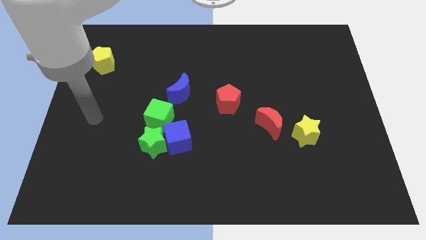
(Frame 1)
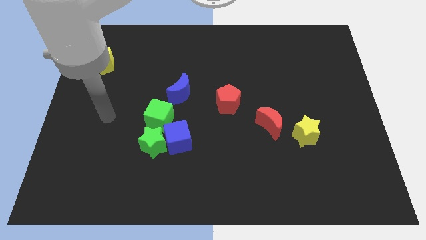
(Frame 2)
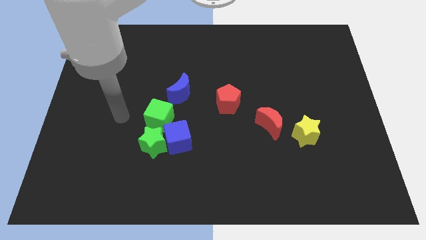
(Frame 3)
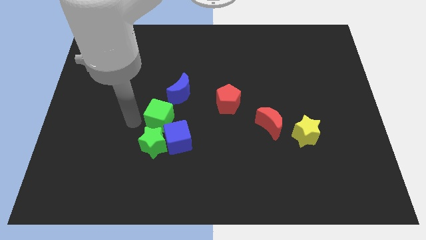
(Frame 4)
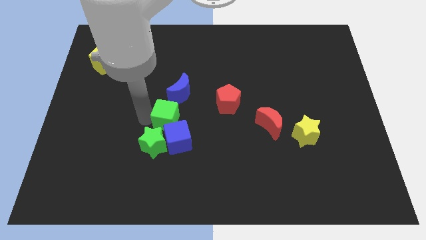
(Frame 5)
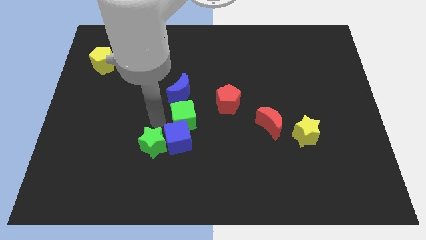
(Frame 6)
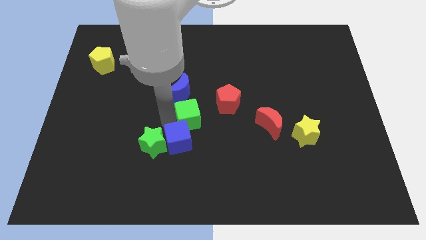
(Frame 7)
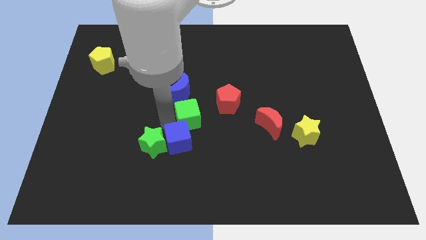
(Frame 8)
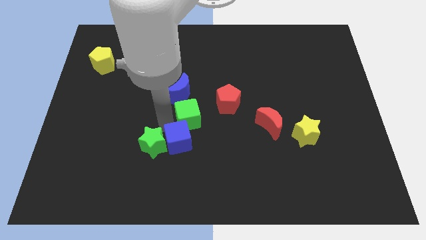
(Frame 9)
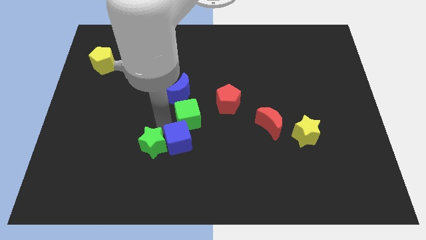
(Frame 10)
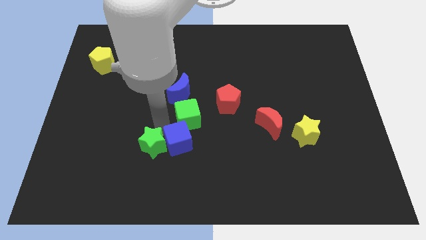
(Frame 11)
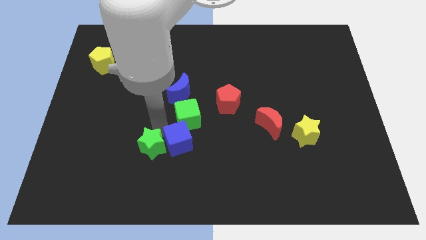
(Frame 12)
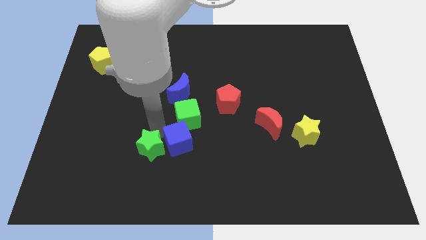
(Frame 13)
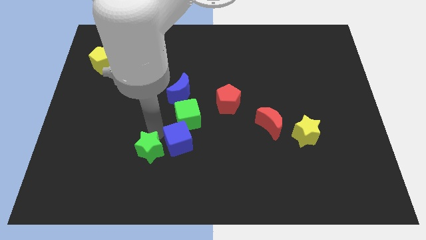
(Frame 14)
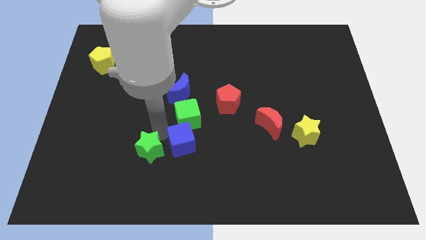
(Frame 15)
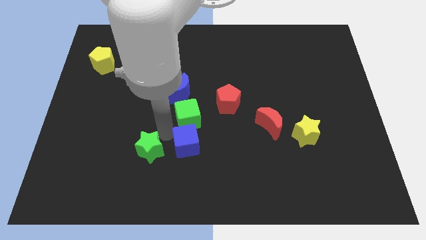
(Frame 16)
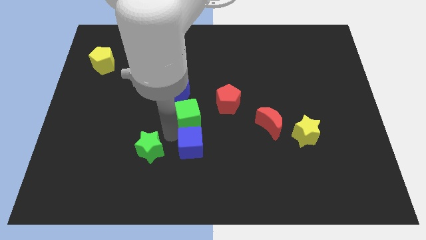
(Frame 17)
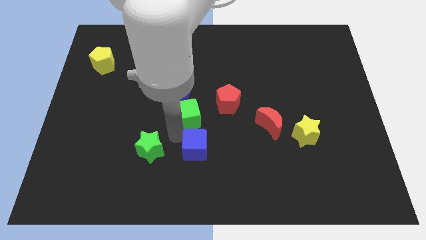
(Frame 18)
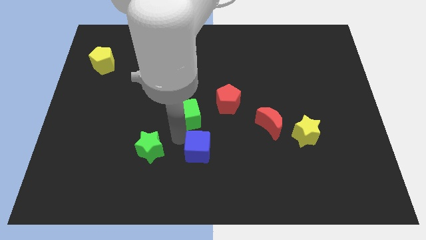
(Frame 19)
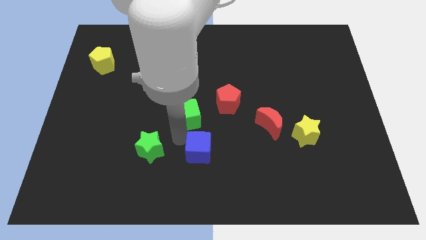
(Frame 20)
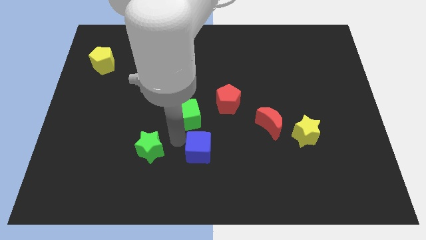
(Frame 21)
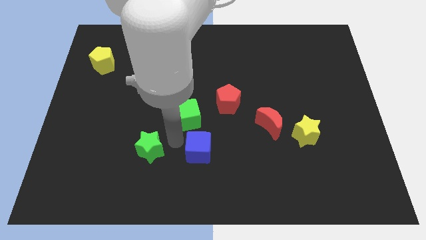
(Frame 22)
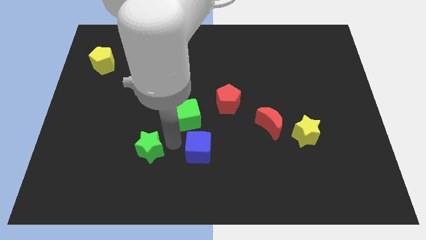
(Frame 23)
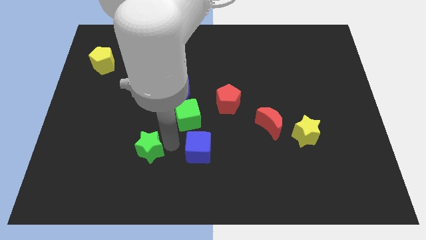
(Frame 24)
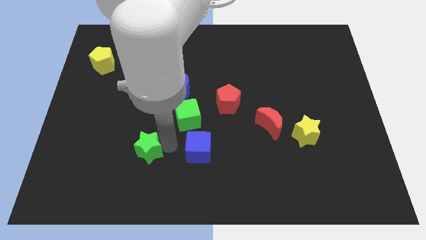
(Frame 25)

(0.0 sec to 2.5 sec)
move the green star away from the blue cube and green cube

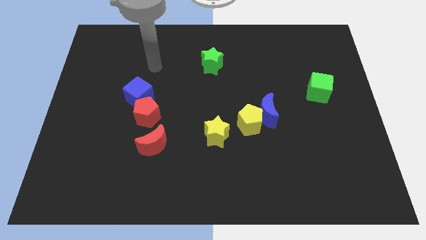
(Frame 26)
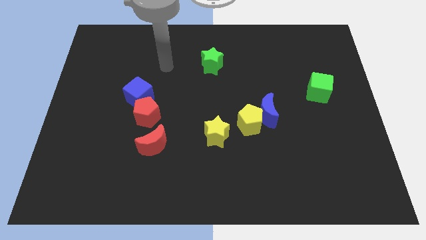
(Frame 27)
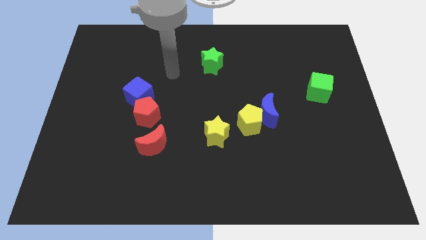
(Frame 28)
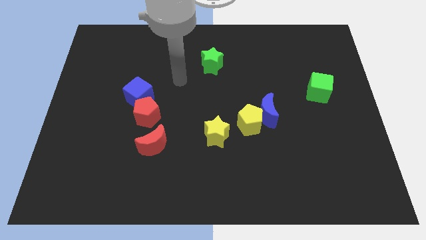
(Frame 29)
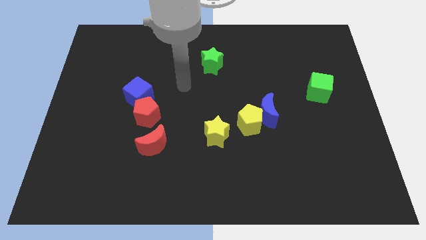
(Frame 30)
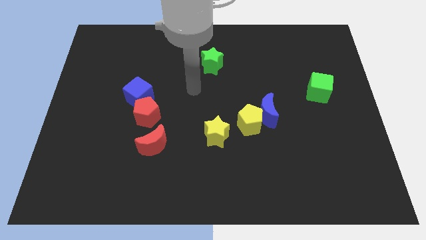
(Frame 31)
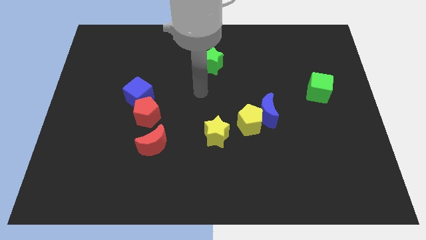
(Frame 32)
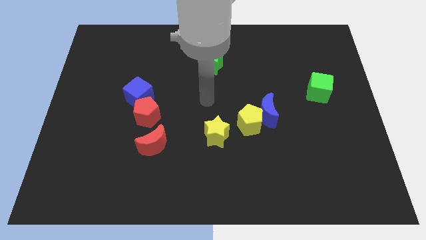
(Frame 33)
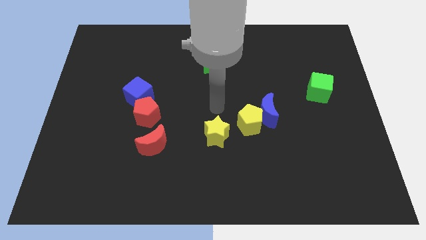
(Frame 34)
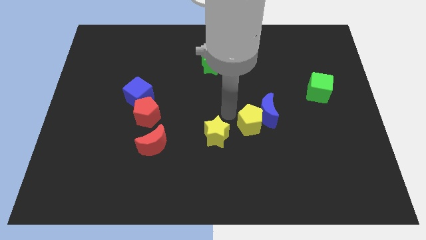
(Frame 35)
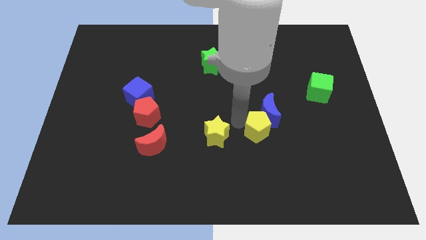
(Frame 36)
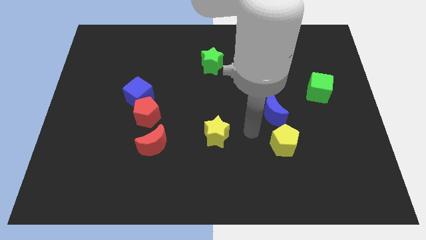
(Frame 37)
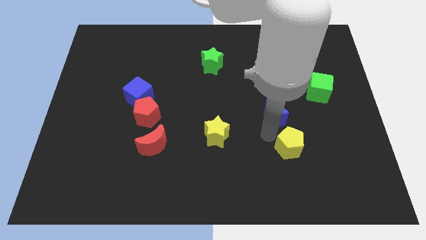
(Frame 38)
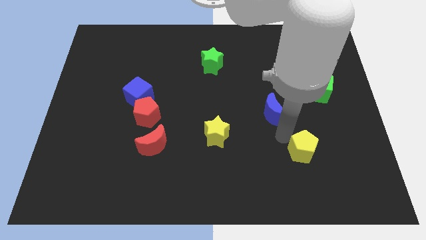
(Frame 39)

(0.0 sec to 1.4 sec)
separate the blue moon from the yellow pentagon

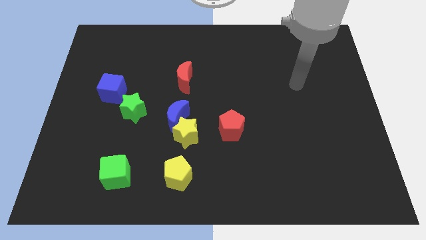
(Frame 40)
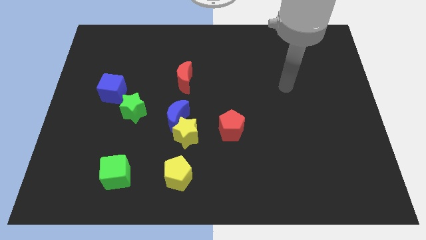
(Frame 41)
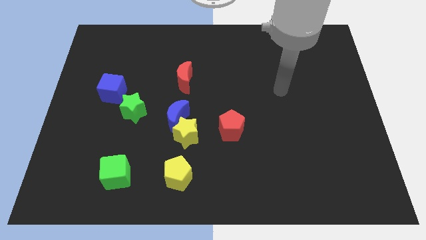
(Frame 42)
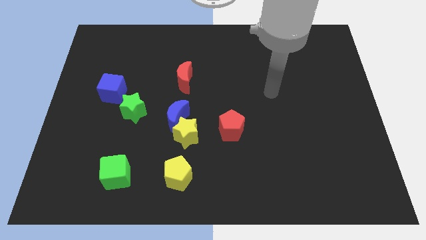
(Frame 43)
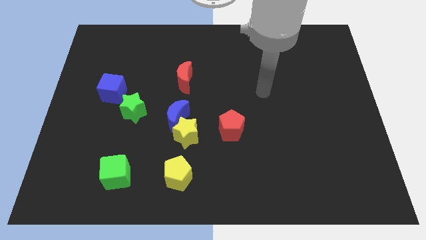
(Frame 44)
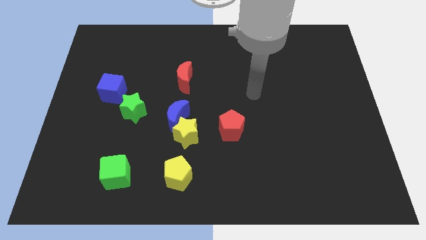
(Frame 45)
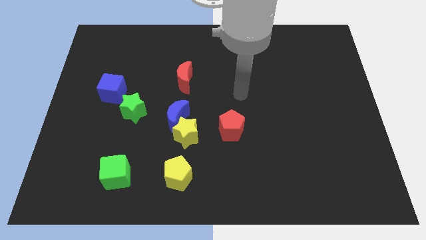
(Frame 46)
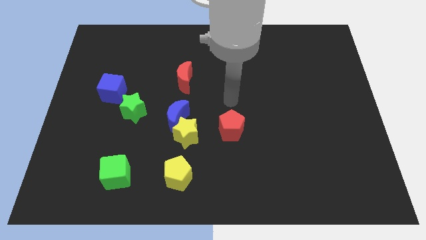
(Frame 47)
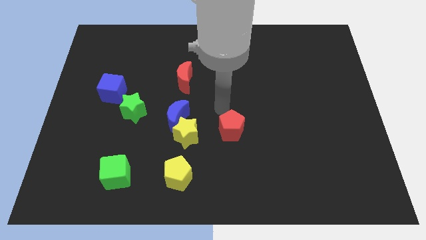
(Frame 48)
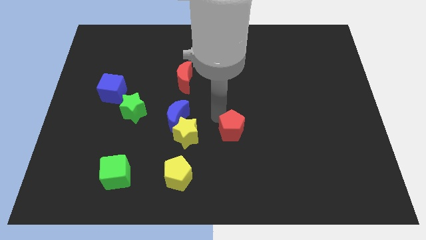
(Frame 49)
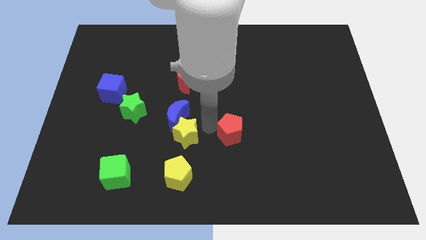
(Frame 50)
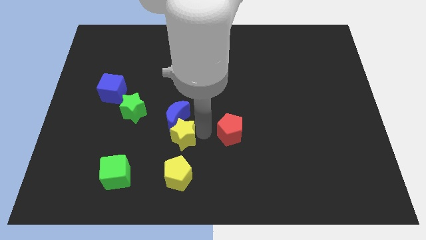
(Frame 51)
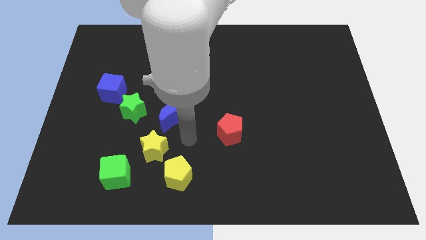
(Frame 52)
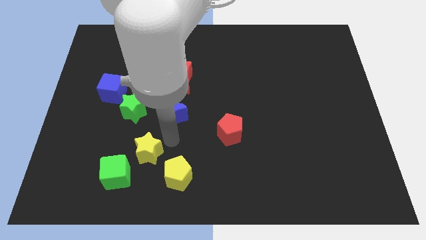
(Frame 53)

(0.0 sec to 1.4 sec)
separate the blue moon from the yellow star

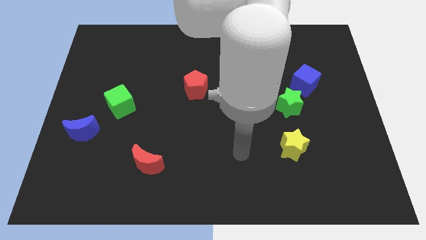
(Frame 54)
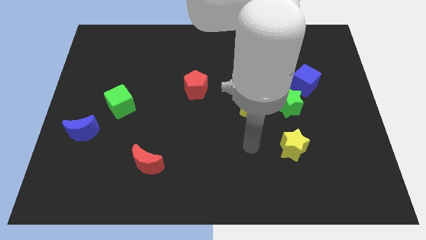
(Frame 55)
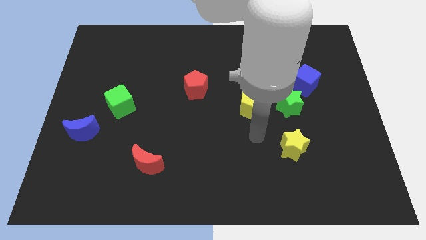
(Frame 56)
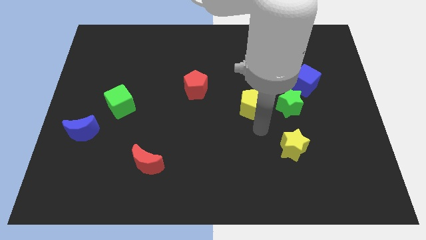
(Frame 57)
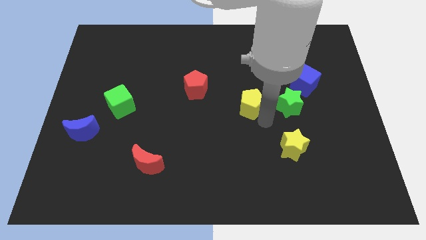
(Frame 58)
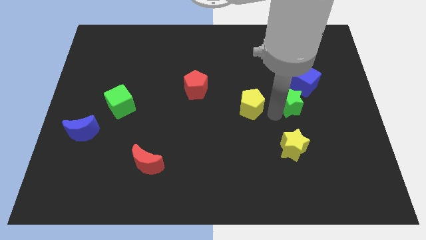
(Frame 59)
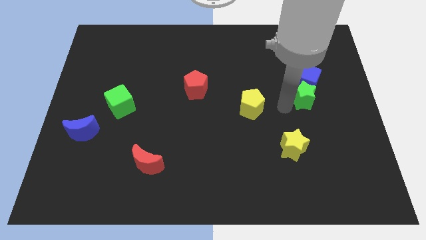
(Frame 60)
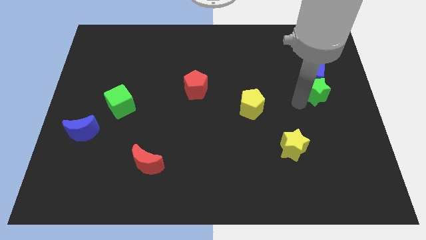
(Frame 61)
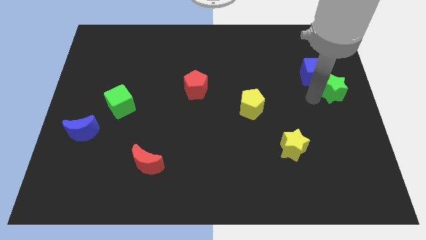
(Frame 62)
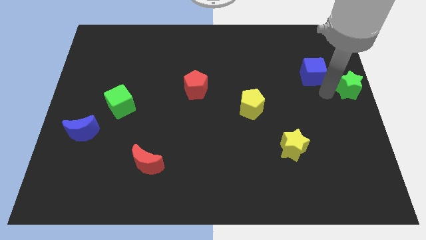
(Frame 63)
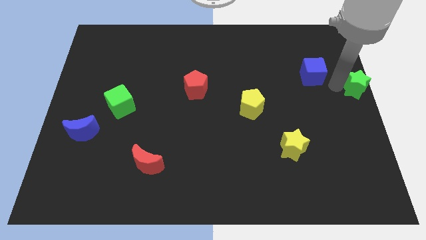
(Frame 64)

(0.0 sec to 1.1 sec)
pull the blue cube apart from the green star

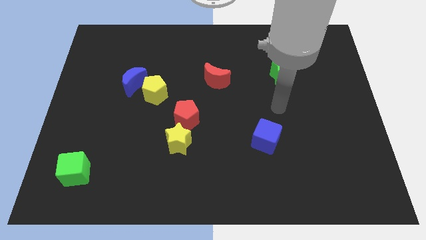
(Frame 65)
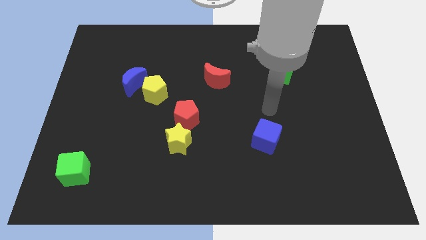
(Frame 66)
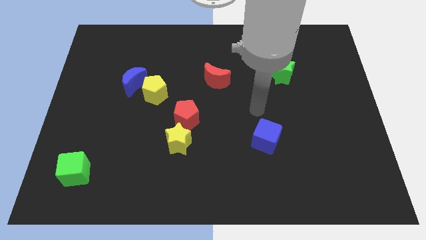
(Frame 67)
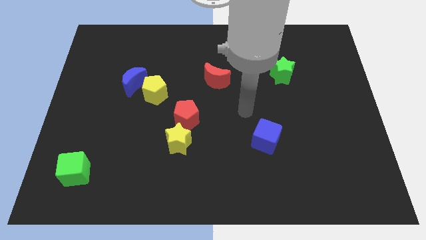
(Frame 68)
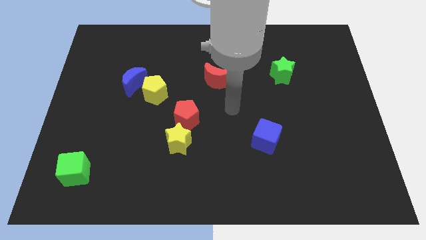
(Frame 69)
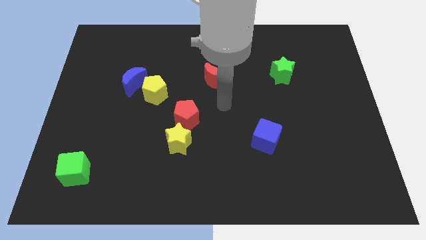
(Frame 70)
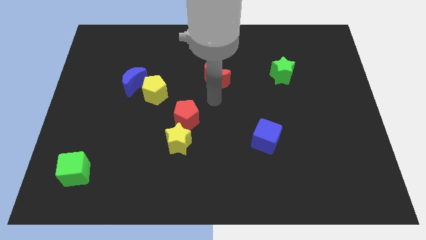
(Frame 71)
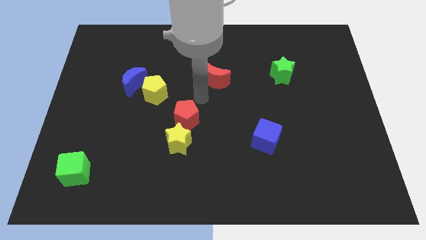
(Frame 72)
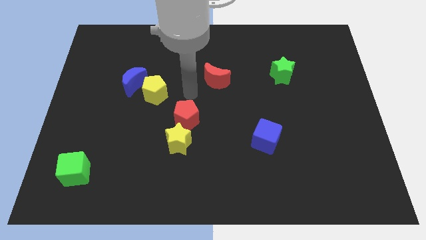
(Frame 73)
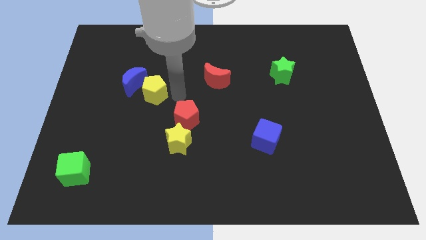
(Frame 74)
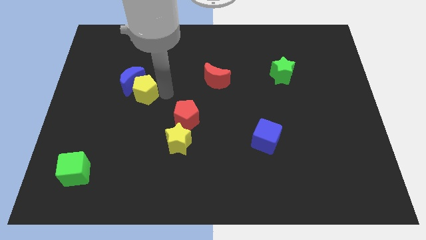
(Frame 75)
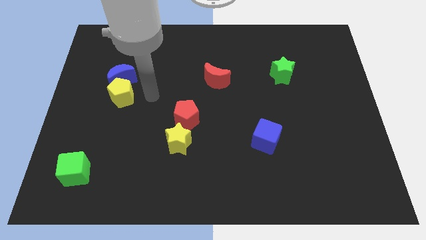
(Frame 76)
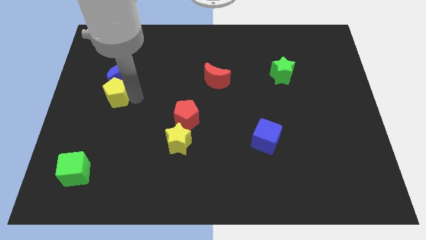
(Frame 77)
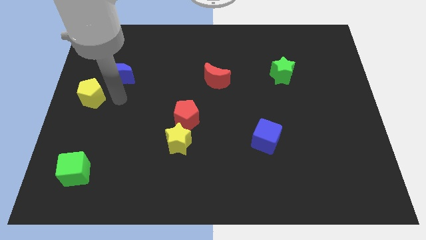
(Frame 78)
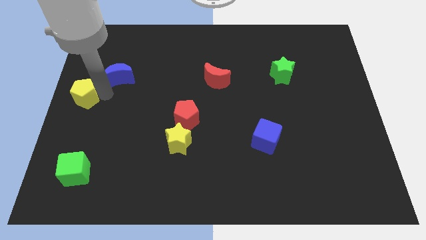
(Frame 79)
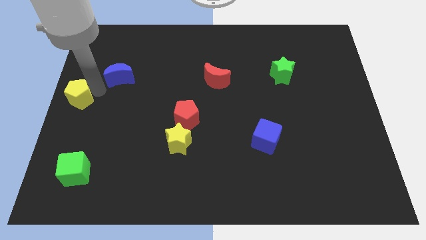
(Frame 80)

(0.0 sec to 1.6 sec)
move the blue moon away from the yellow pentagon

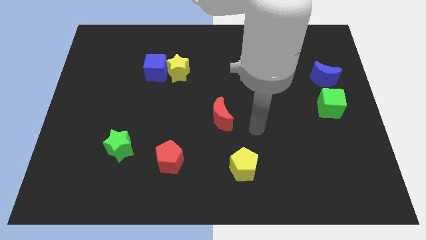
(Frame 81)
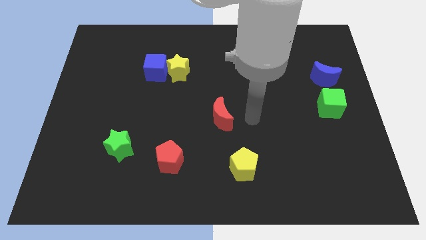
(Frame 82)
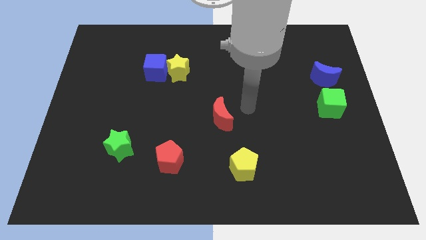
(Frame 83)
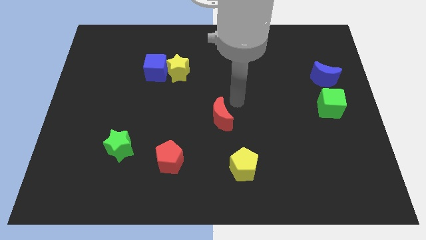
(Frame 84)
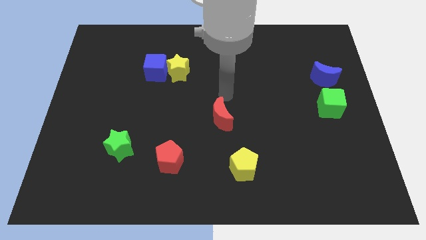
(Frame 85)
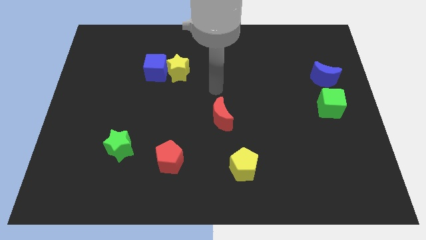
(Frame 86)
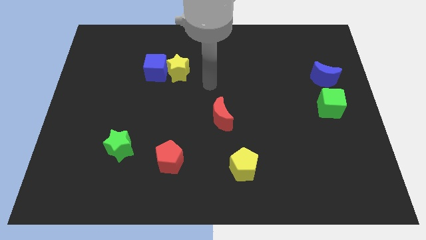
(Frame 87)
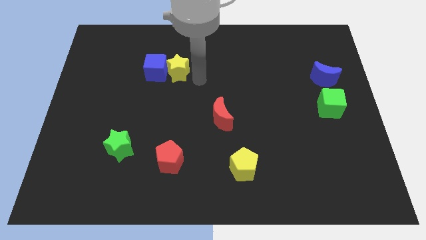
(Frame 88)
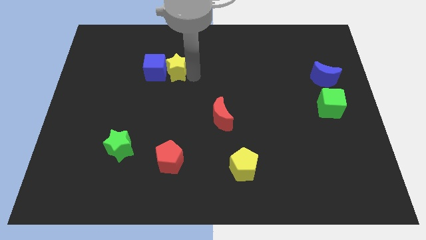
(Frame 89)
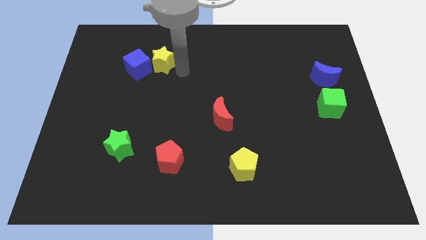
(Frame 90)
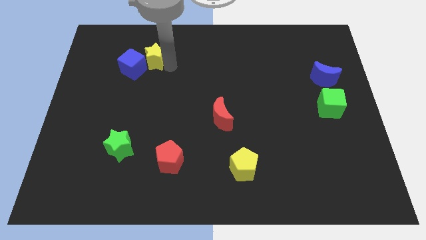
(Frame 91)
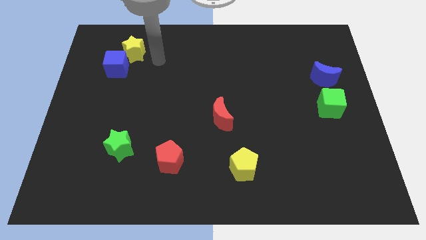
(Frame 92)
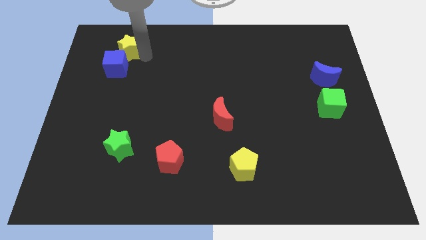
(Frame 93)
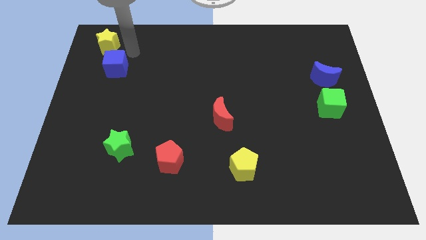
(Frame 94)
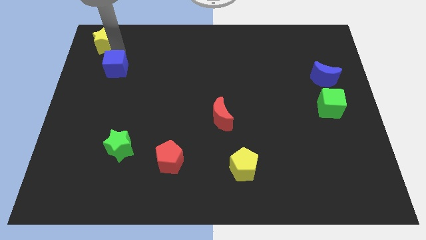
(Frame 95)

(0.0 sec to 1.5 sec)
separate the blue cube from the yellow star
